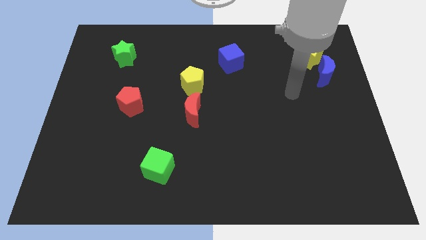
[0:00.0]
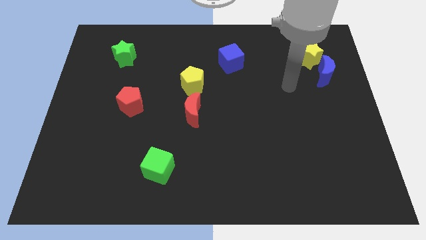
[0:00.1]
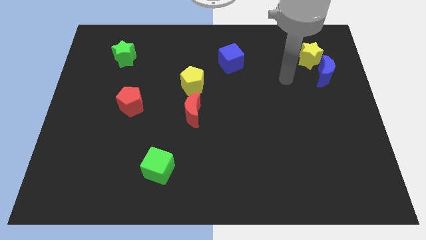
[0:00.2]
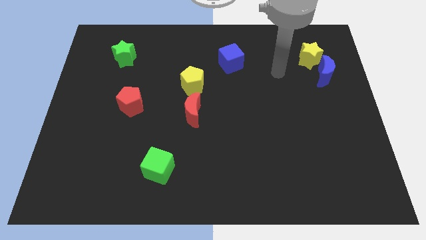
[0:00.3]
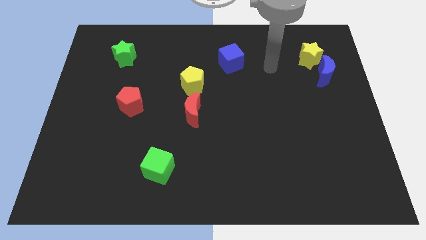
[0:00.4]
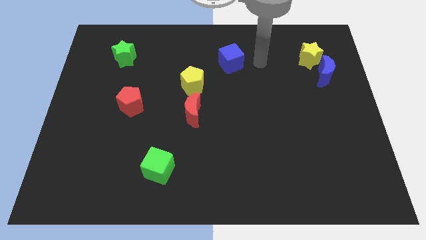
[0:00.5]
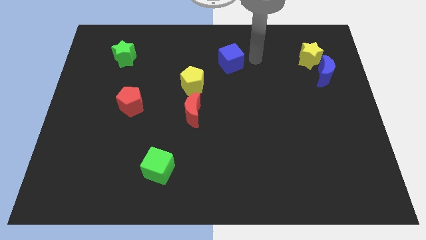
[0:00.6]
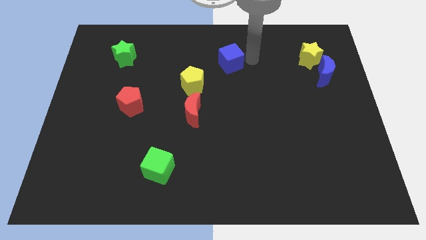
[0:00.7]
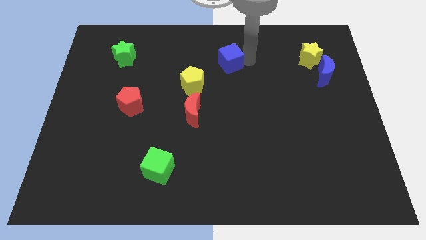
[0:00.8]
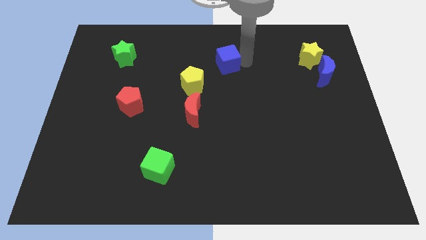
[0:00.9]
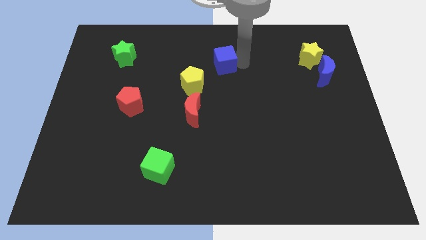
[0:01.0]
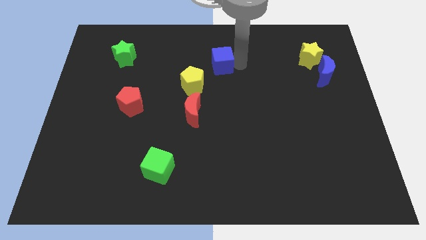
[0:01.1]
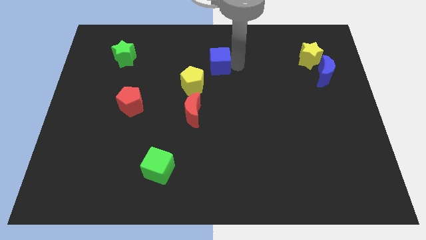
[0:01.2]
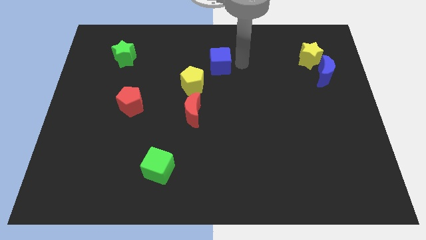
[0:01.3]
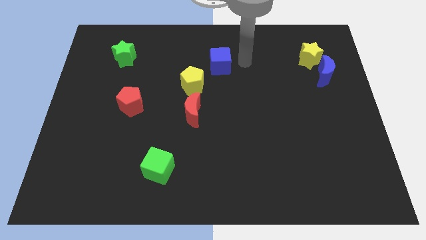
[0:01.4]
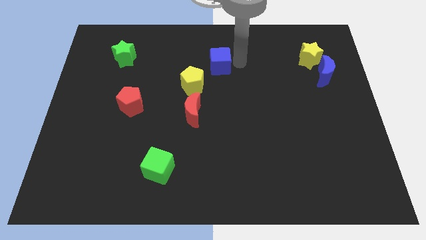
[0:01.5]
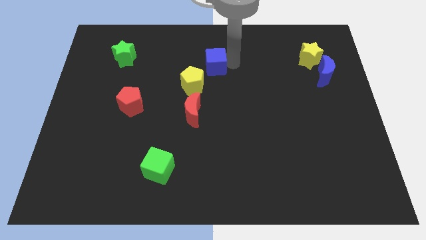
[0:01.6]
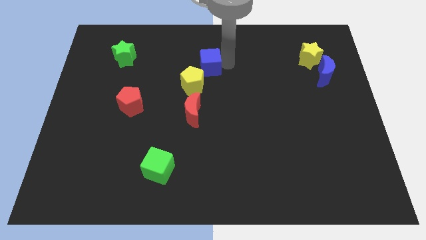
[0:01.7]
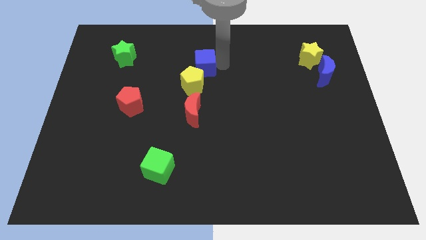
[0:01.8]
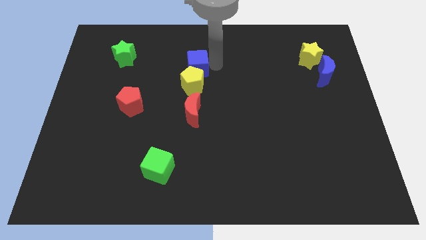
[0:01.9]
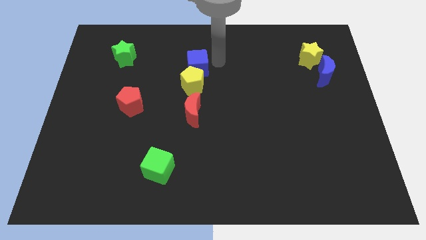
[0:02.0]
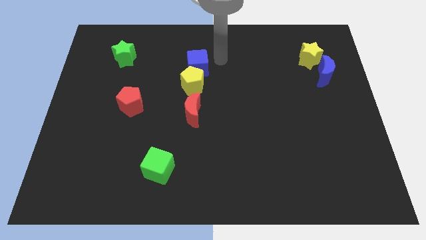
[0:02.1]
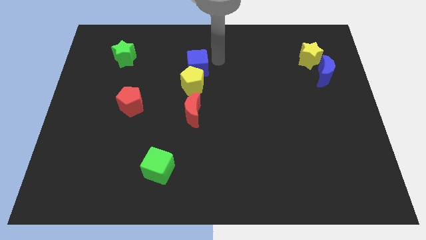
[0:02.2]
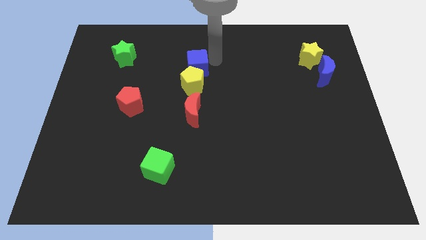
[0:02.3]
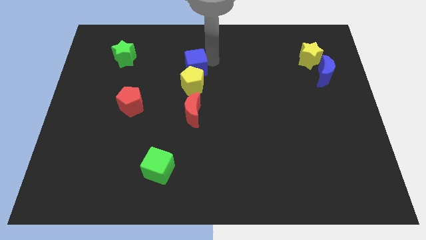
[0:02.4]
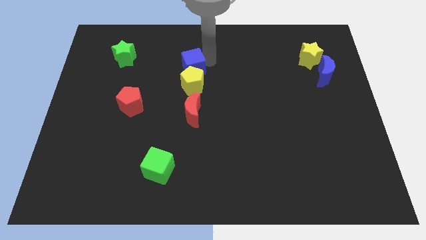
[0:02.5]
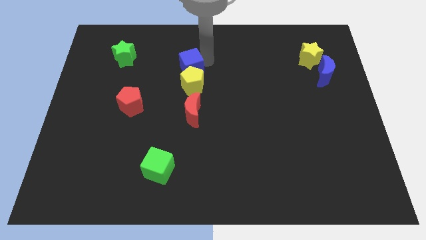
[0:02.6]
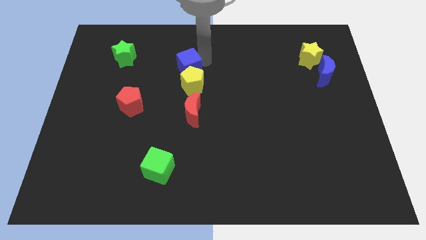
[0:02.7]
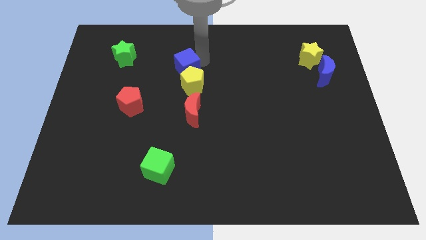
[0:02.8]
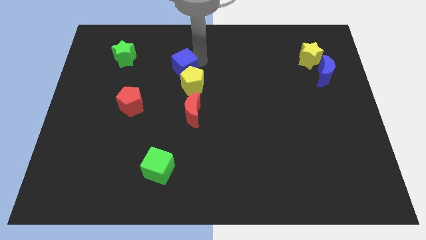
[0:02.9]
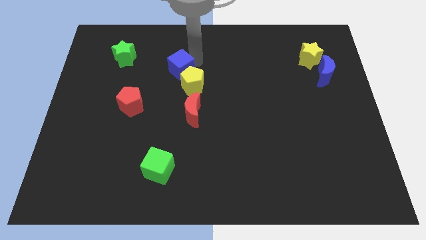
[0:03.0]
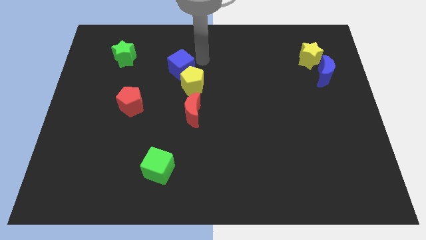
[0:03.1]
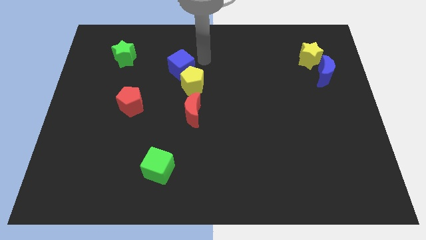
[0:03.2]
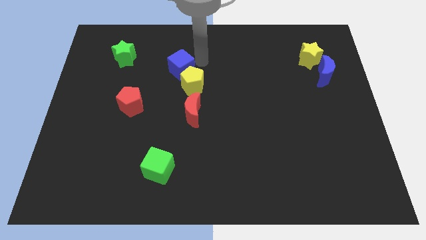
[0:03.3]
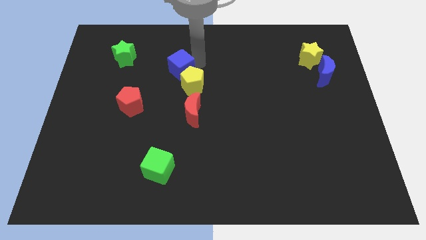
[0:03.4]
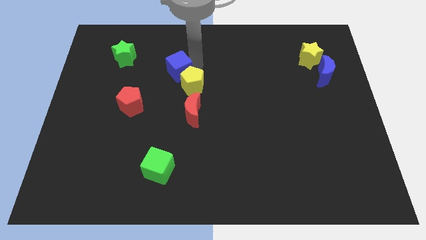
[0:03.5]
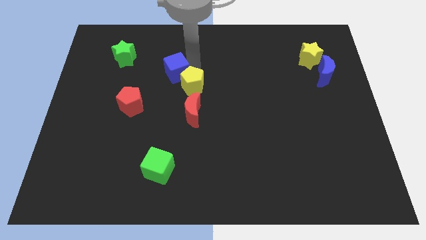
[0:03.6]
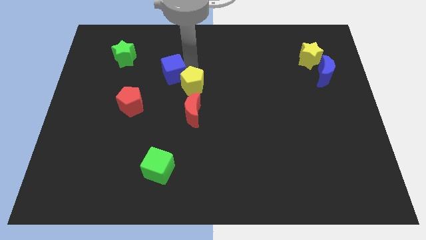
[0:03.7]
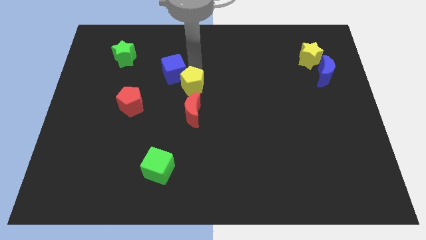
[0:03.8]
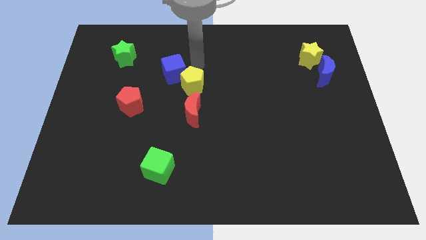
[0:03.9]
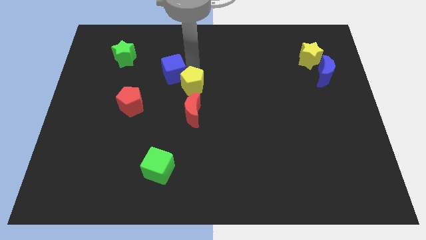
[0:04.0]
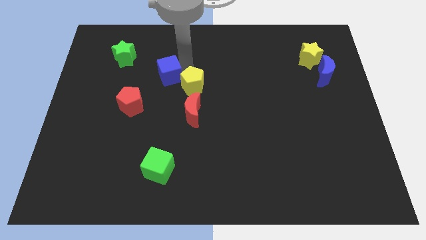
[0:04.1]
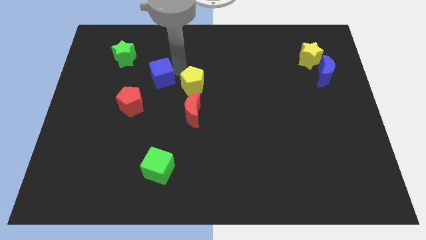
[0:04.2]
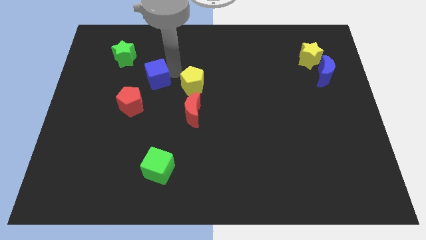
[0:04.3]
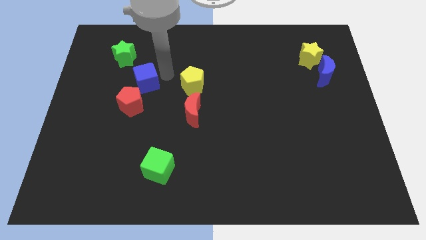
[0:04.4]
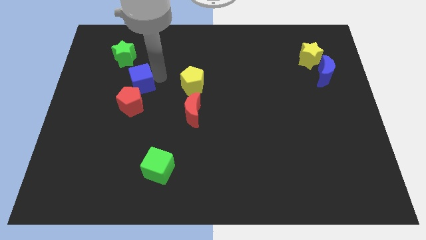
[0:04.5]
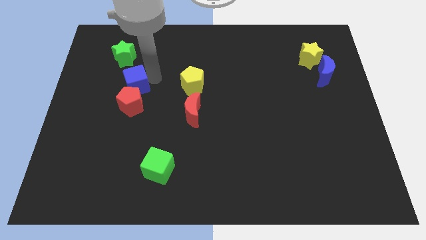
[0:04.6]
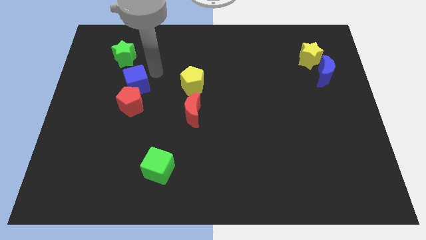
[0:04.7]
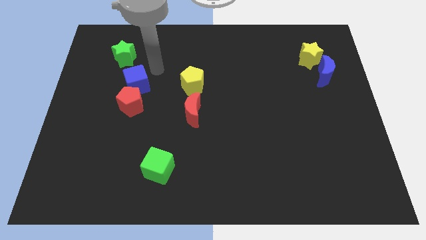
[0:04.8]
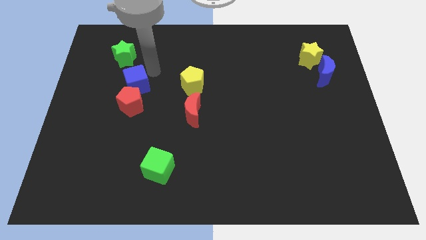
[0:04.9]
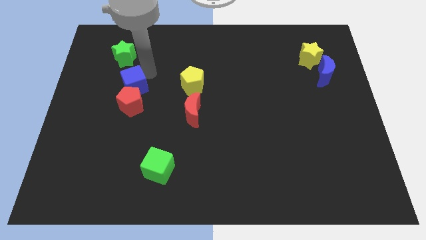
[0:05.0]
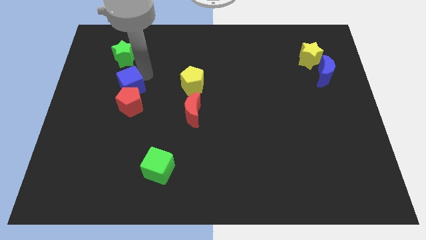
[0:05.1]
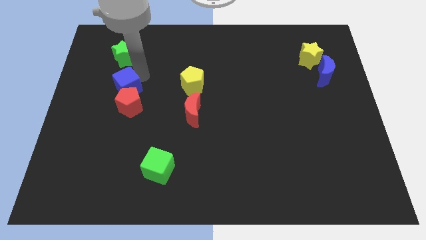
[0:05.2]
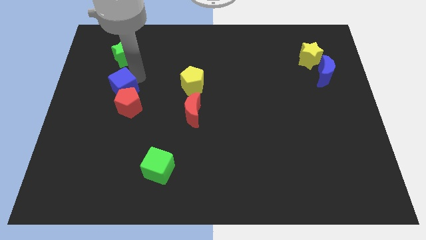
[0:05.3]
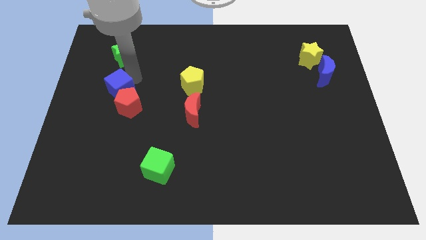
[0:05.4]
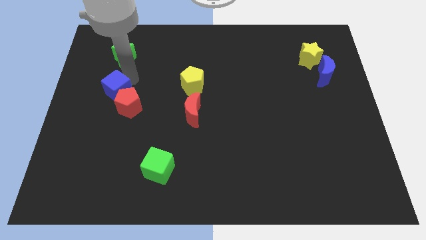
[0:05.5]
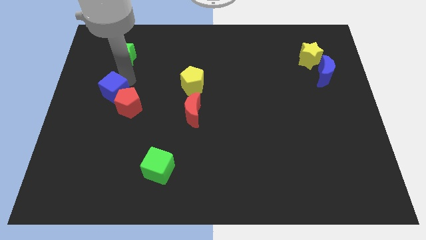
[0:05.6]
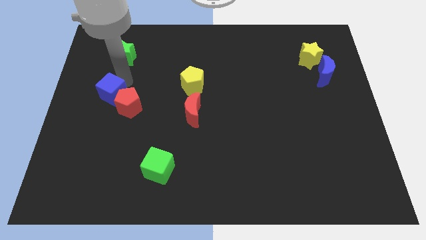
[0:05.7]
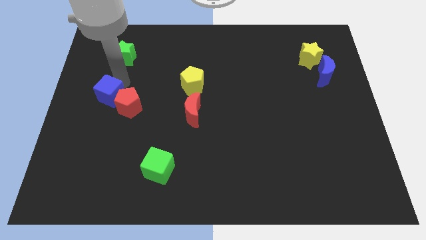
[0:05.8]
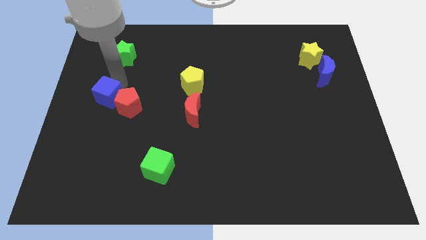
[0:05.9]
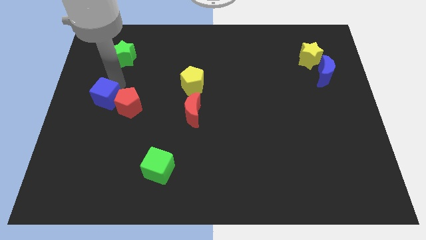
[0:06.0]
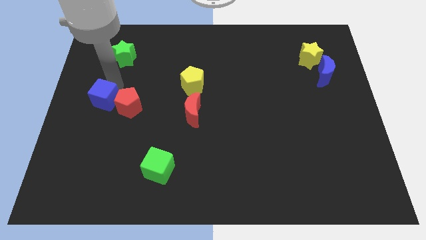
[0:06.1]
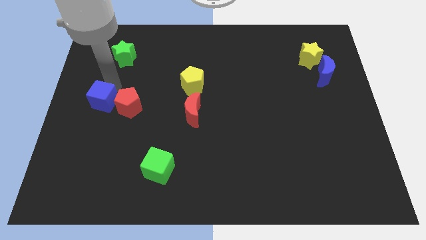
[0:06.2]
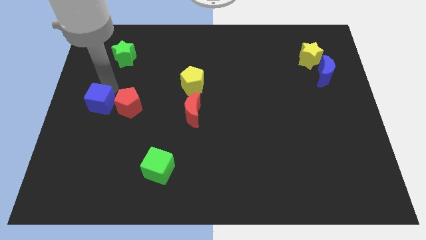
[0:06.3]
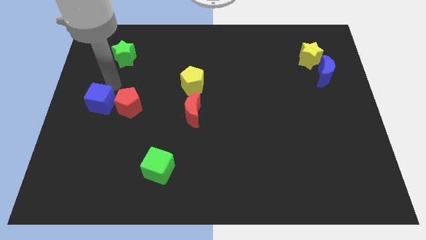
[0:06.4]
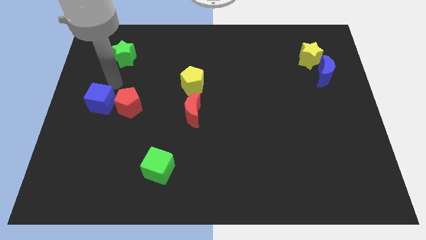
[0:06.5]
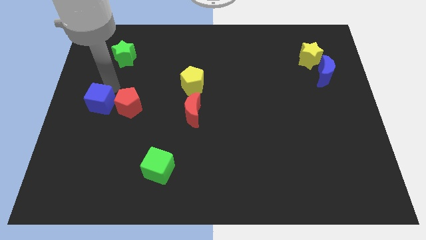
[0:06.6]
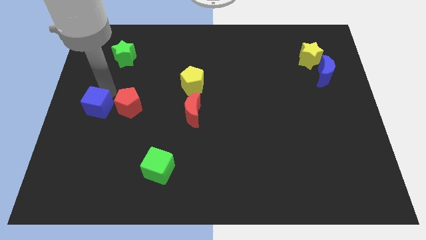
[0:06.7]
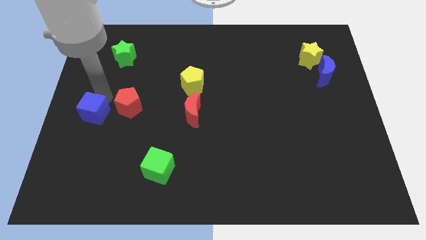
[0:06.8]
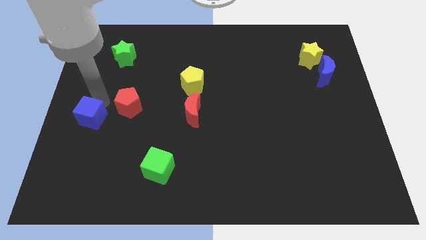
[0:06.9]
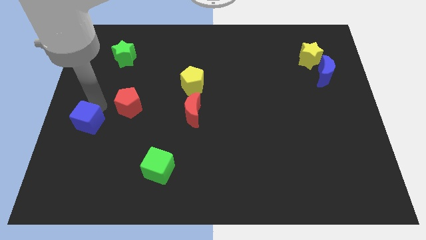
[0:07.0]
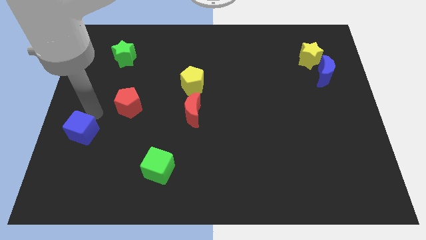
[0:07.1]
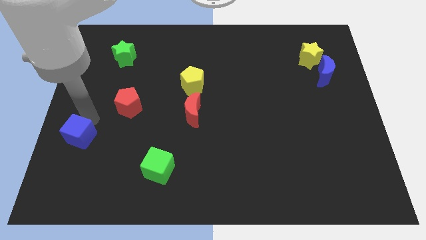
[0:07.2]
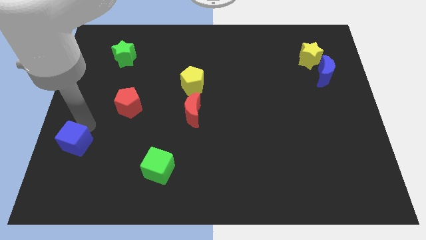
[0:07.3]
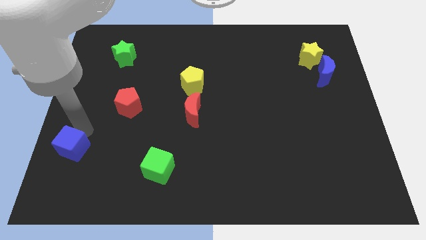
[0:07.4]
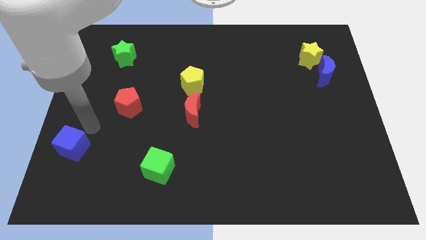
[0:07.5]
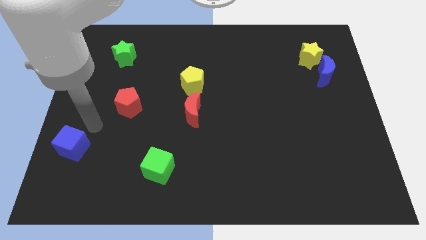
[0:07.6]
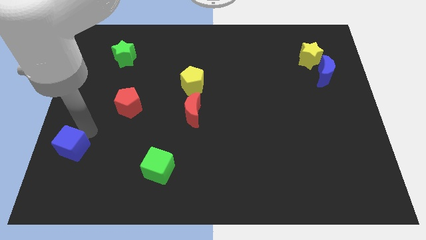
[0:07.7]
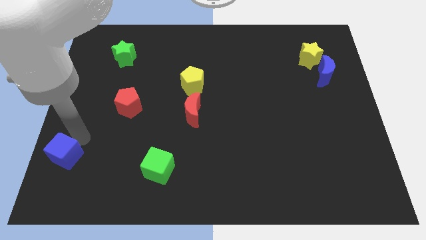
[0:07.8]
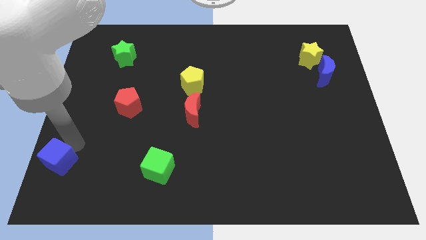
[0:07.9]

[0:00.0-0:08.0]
slide the blue cube to the bottom left

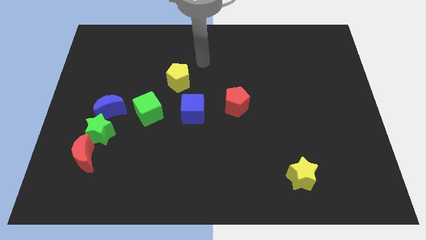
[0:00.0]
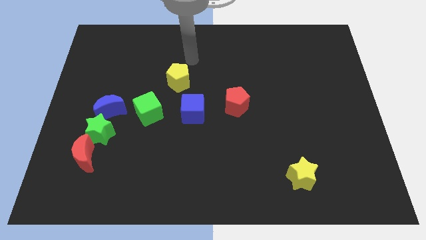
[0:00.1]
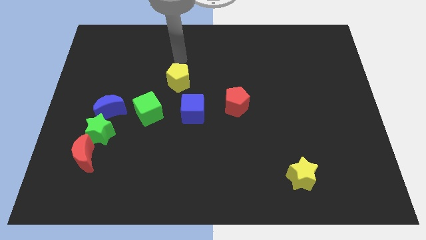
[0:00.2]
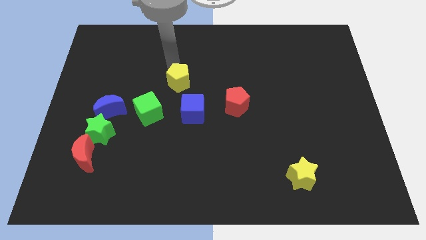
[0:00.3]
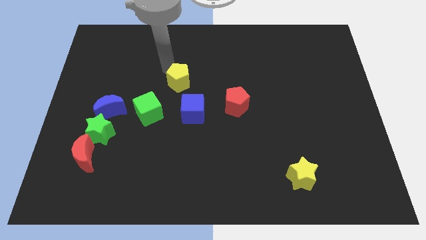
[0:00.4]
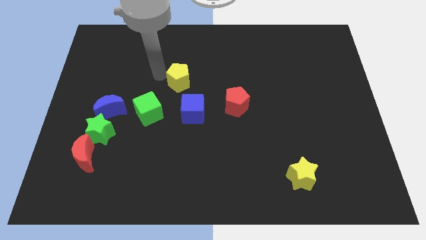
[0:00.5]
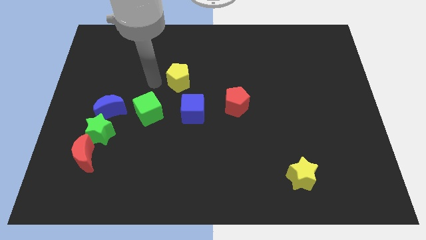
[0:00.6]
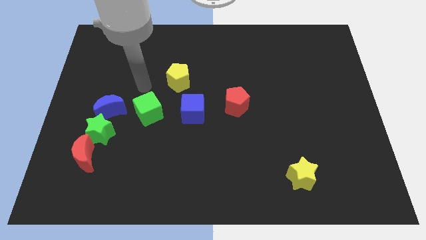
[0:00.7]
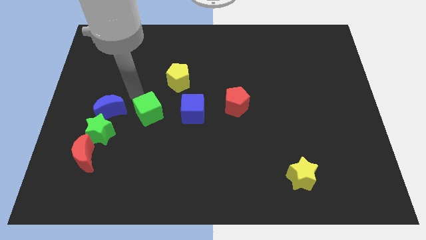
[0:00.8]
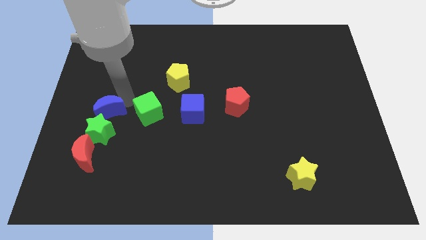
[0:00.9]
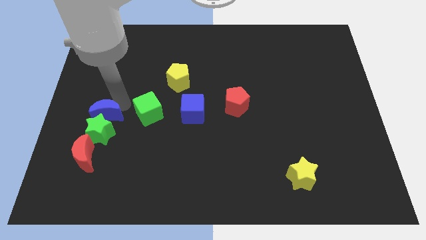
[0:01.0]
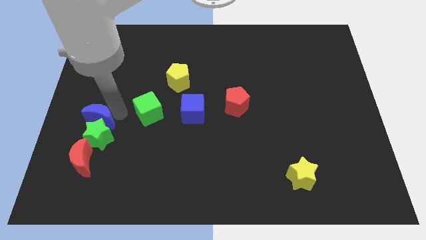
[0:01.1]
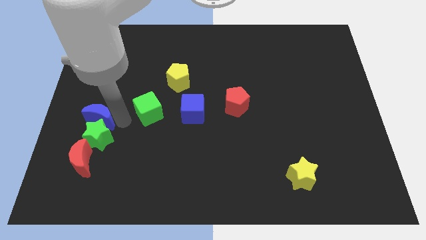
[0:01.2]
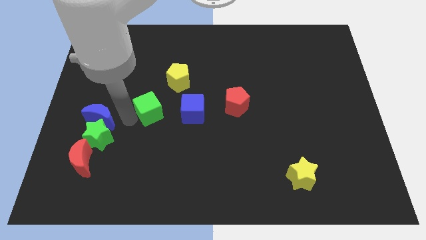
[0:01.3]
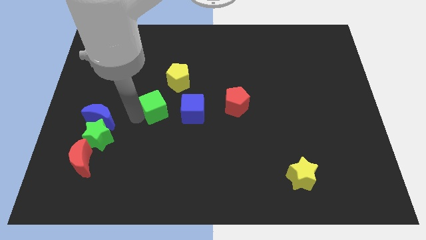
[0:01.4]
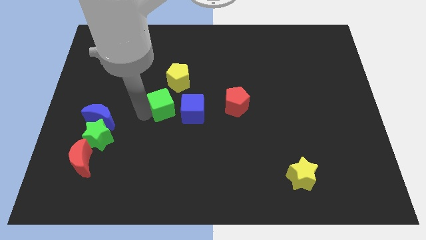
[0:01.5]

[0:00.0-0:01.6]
move the green cube to the center
